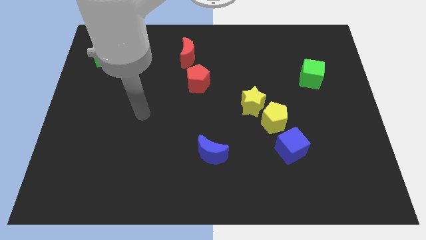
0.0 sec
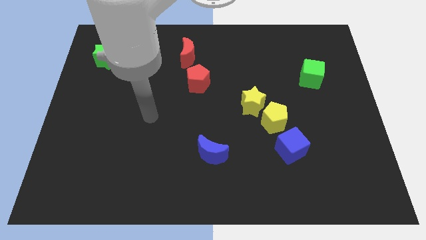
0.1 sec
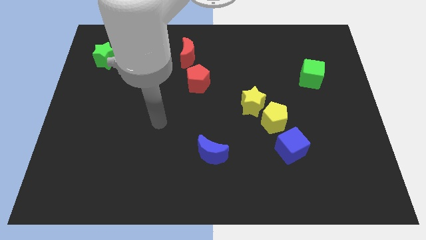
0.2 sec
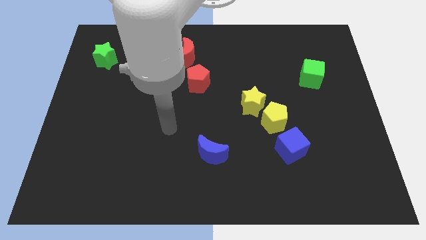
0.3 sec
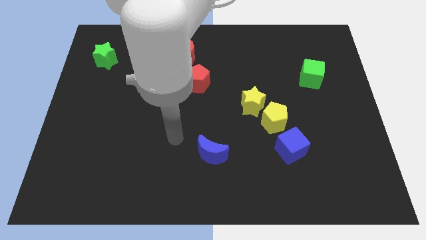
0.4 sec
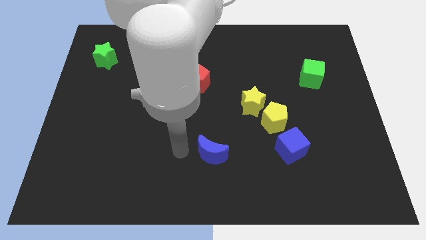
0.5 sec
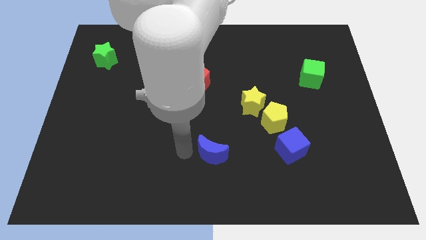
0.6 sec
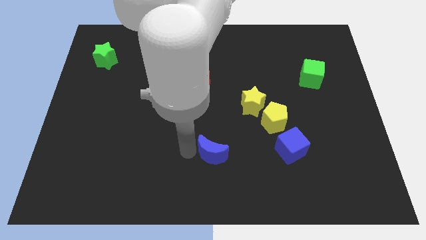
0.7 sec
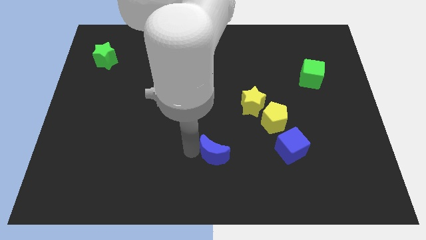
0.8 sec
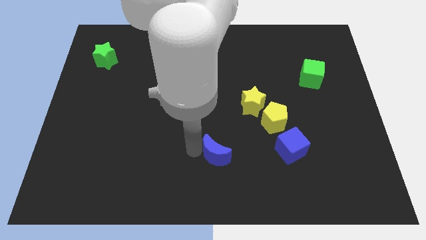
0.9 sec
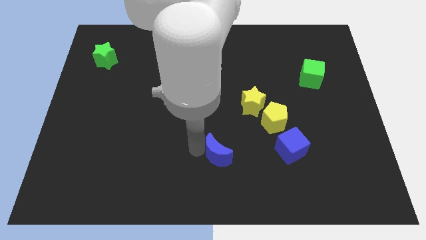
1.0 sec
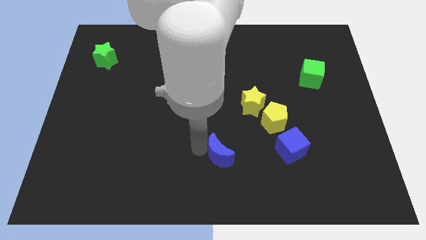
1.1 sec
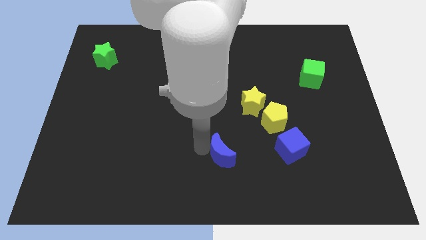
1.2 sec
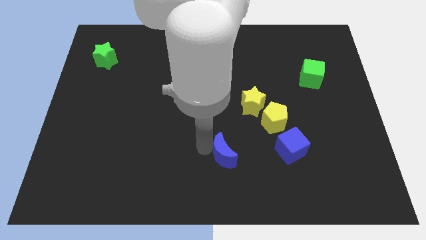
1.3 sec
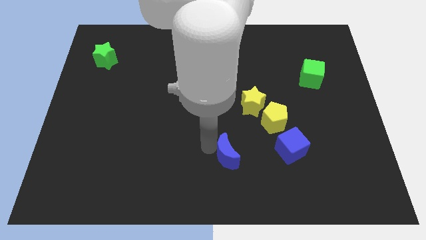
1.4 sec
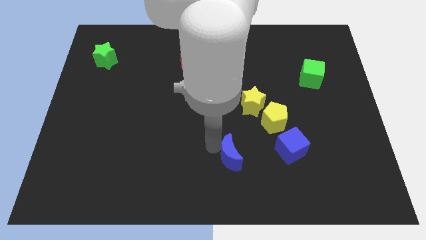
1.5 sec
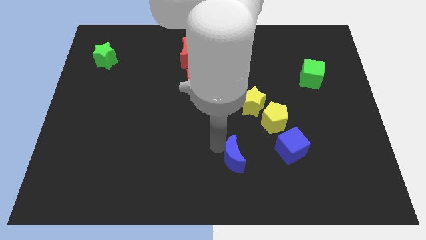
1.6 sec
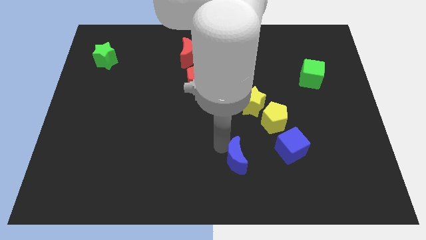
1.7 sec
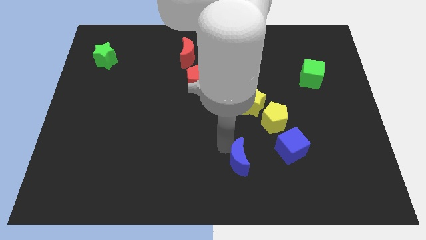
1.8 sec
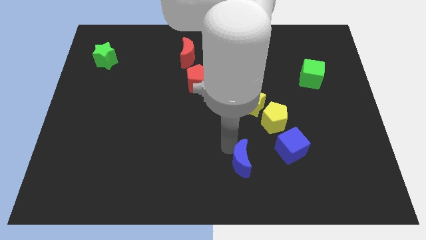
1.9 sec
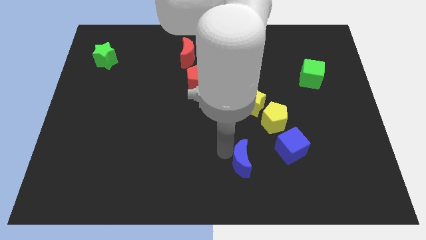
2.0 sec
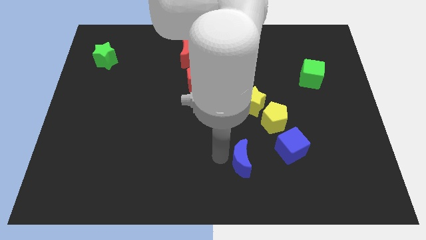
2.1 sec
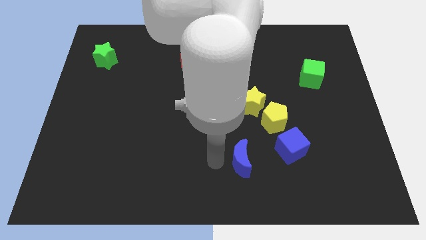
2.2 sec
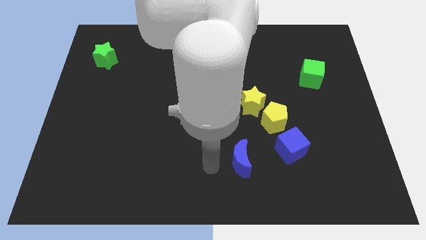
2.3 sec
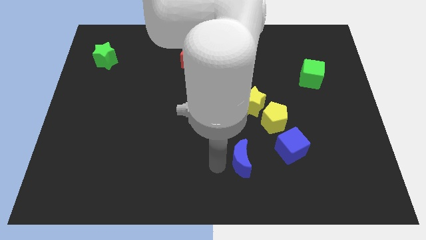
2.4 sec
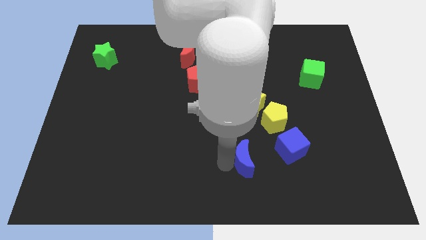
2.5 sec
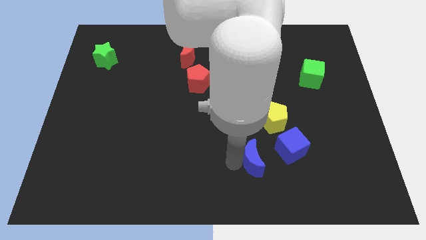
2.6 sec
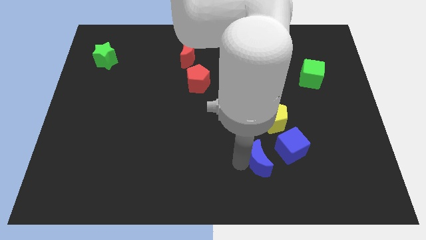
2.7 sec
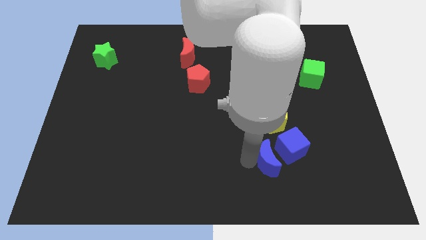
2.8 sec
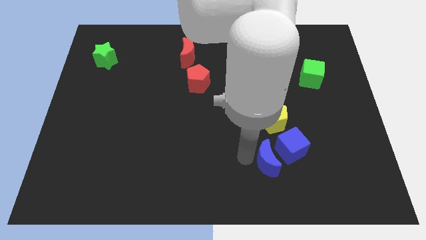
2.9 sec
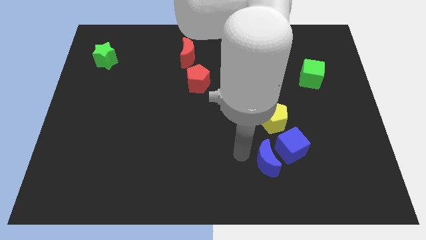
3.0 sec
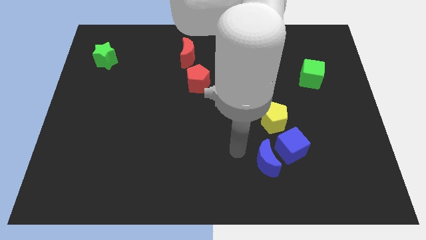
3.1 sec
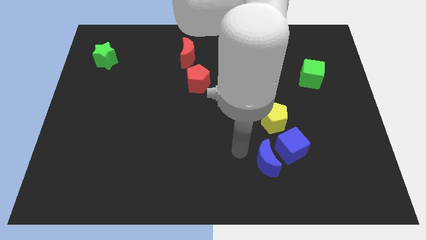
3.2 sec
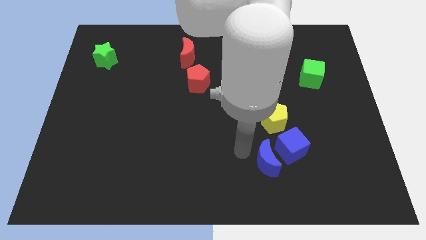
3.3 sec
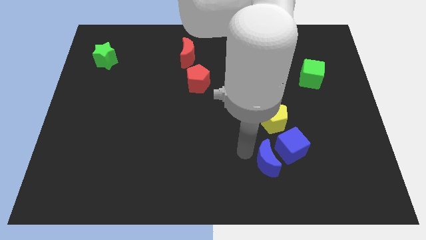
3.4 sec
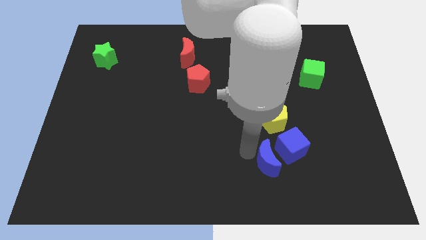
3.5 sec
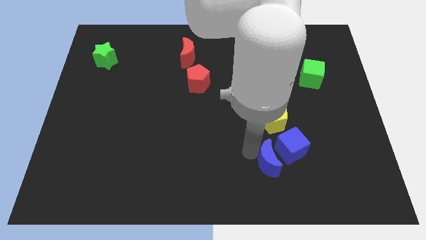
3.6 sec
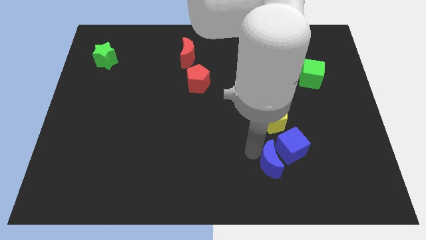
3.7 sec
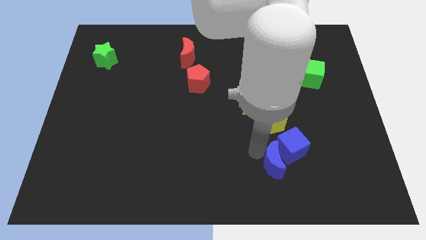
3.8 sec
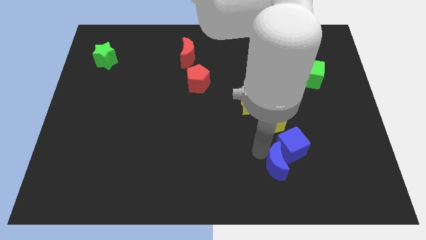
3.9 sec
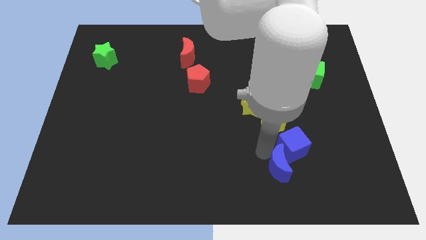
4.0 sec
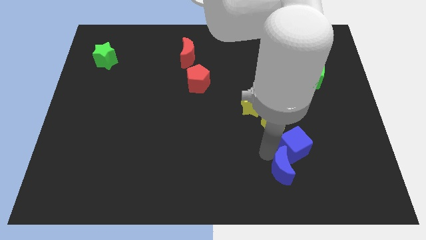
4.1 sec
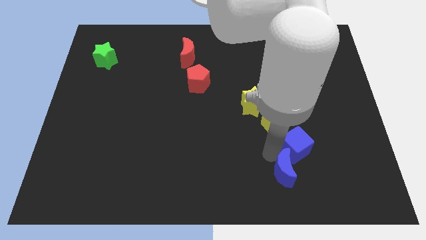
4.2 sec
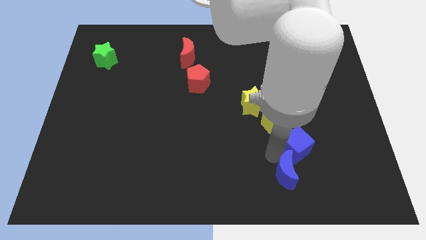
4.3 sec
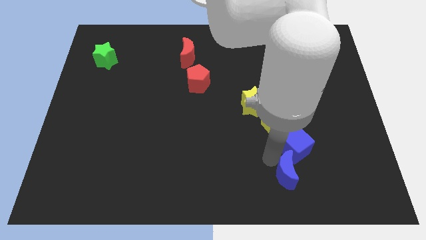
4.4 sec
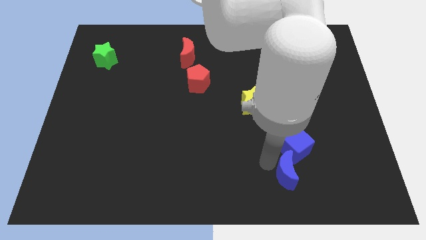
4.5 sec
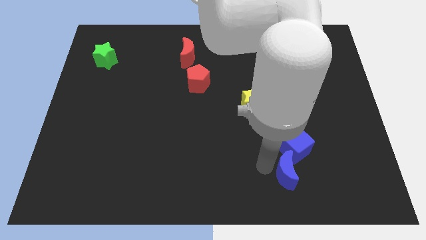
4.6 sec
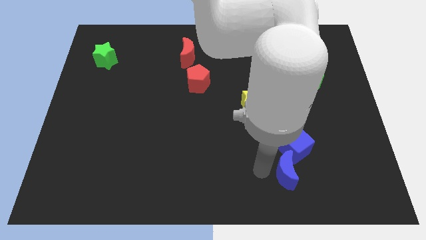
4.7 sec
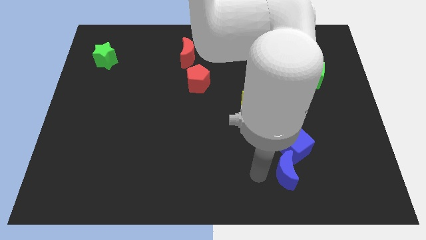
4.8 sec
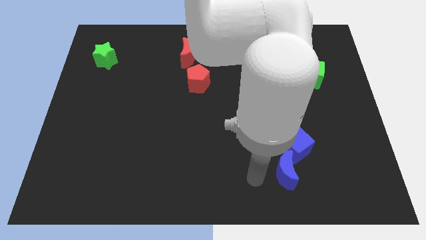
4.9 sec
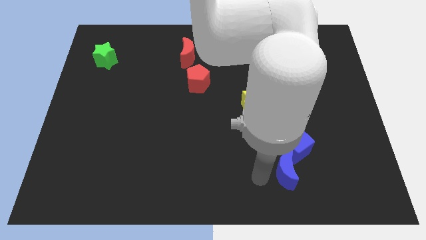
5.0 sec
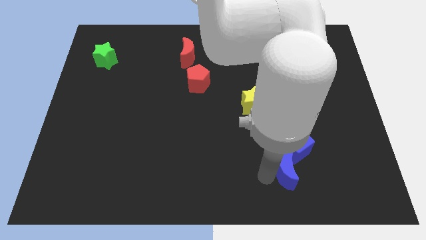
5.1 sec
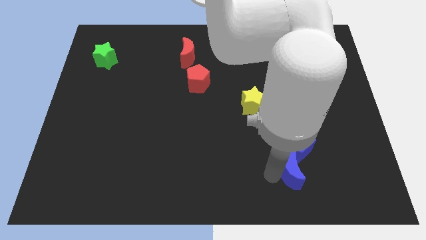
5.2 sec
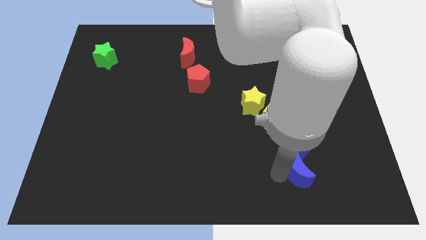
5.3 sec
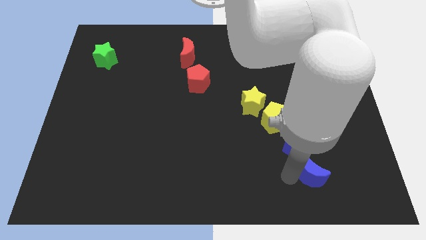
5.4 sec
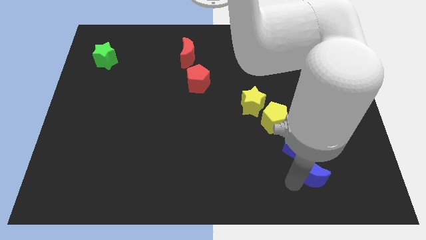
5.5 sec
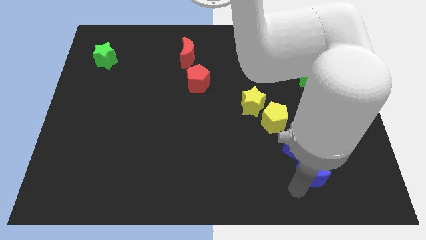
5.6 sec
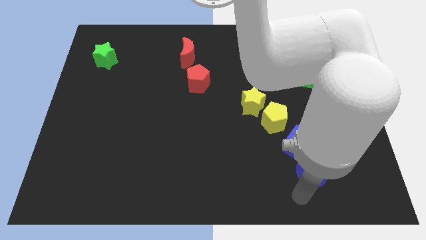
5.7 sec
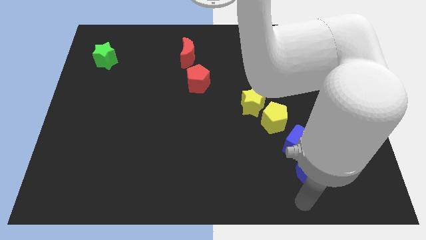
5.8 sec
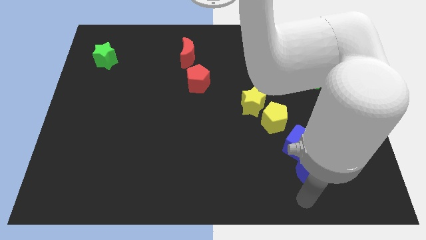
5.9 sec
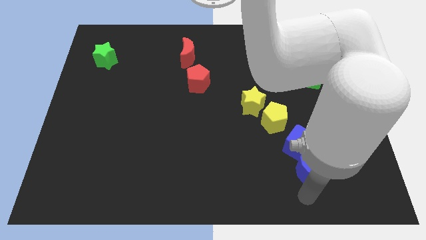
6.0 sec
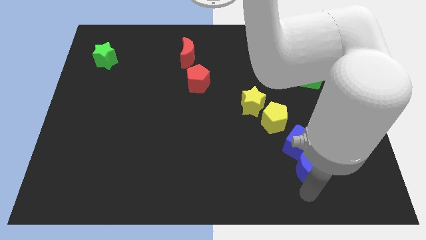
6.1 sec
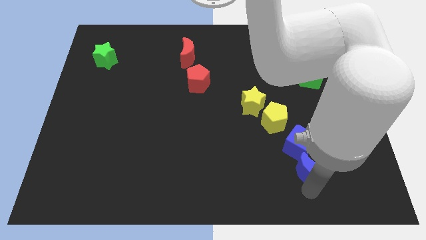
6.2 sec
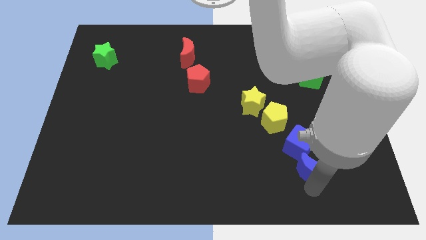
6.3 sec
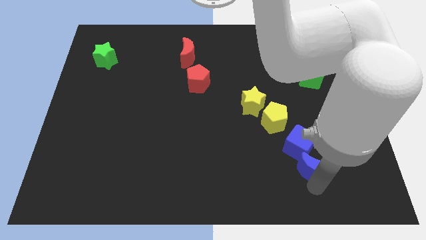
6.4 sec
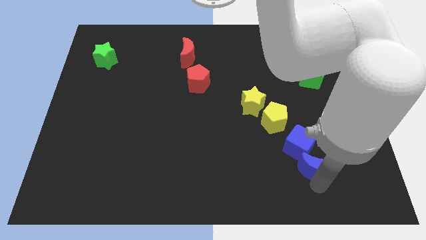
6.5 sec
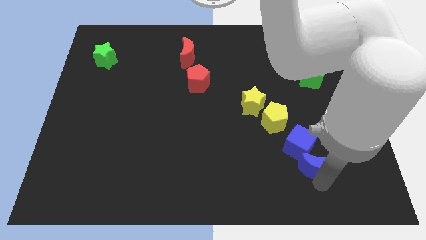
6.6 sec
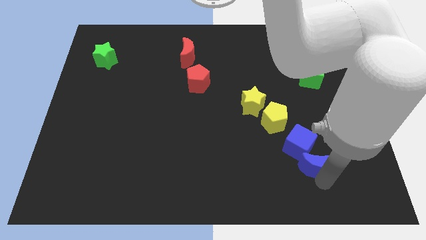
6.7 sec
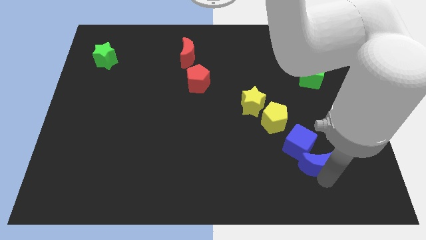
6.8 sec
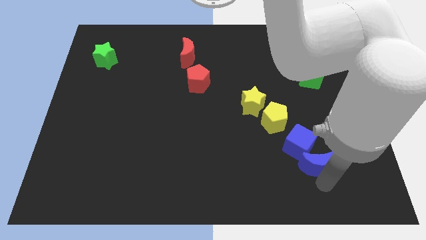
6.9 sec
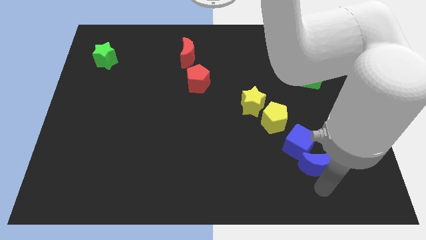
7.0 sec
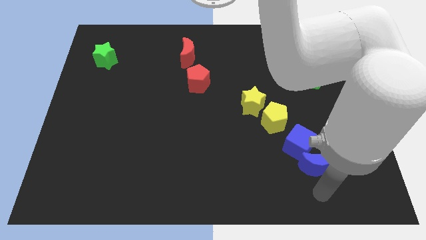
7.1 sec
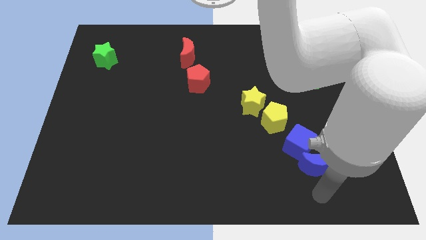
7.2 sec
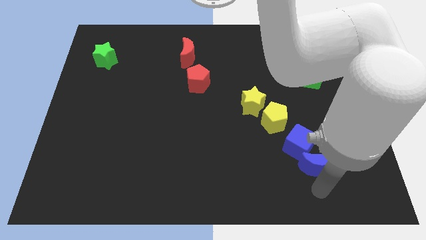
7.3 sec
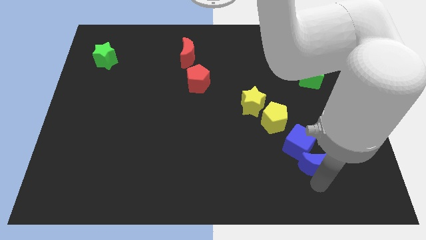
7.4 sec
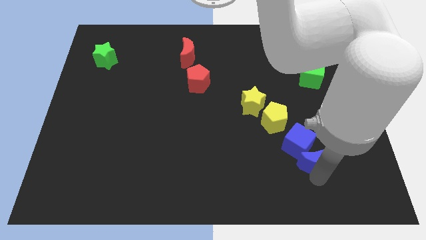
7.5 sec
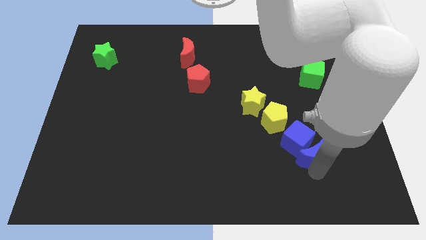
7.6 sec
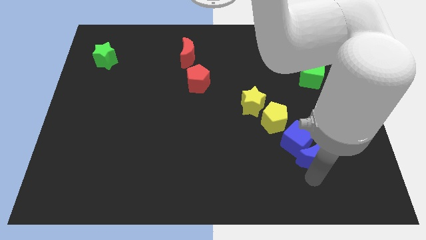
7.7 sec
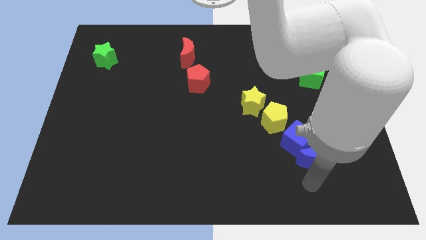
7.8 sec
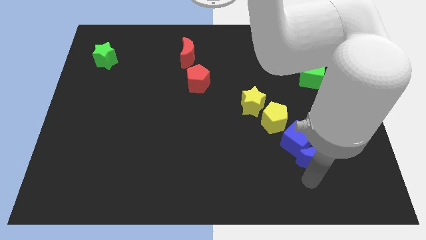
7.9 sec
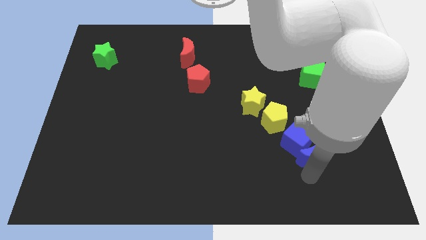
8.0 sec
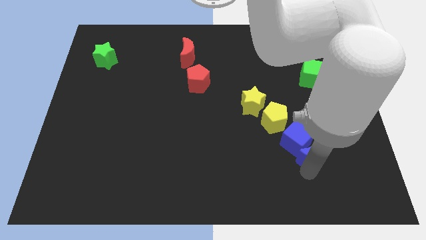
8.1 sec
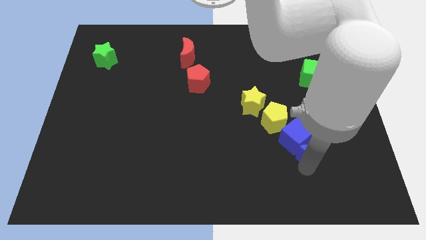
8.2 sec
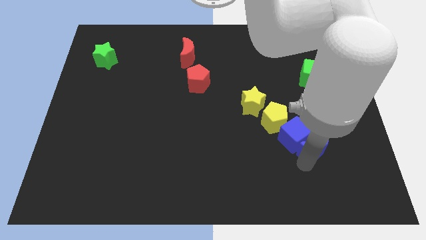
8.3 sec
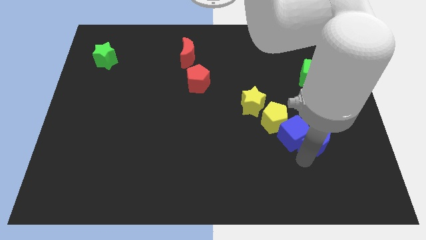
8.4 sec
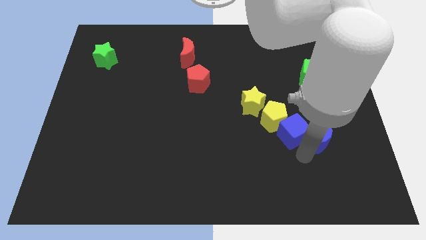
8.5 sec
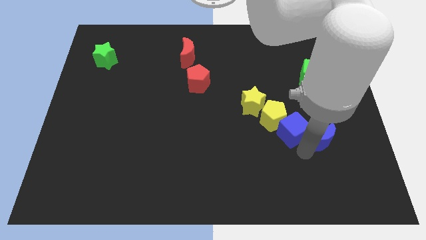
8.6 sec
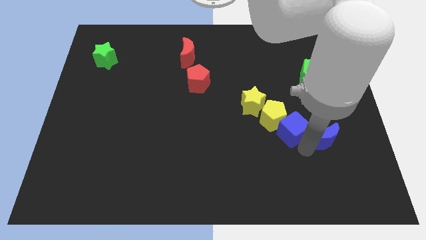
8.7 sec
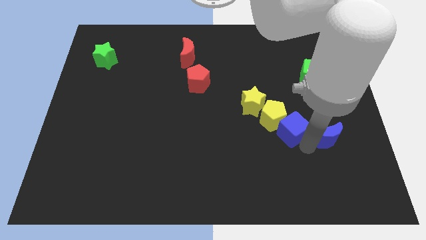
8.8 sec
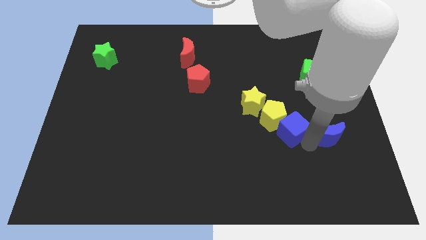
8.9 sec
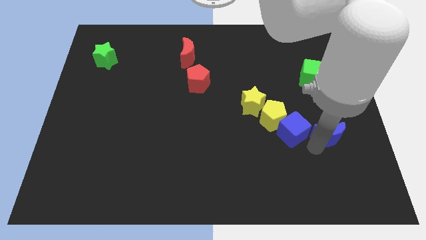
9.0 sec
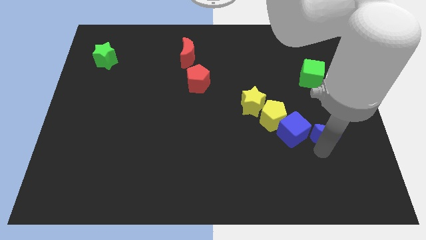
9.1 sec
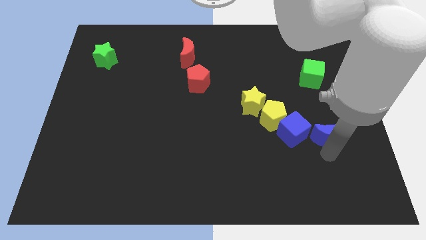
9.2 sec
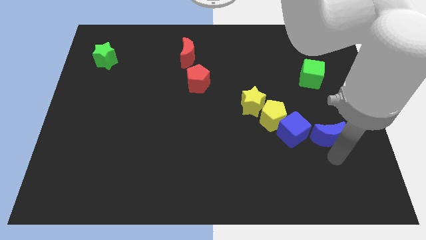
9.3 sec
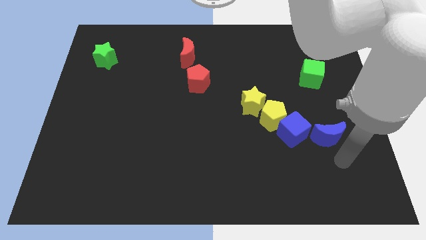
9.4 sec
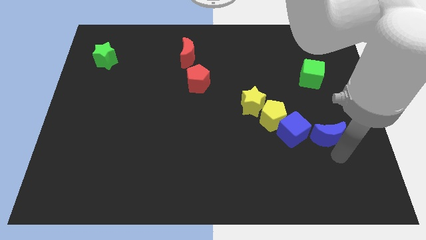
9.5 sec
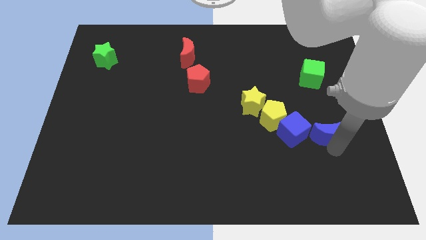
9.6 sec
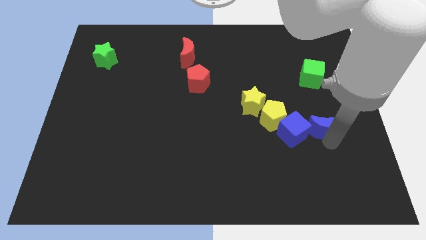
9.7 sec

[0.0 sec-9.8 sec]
push the blue moon to the top right side of the blue cube
